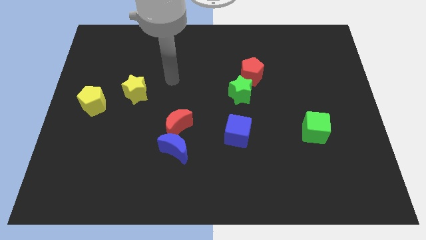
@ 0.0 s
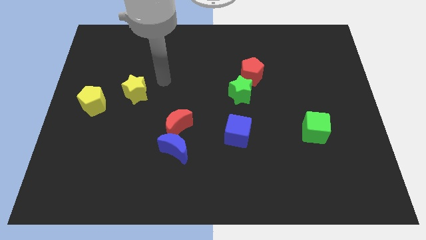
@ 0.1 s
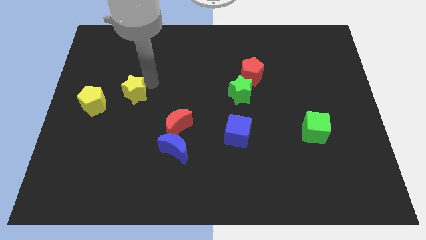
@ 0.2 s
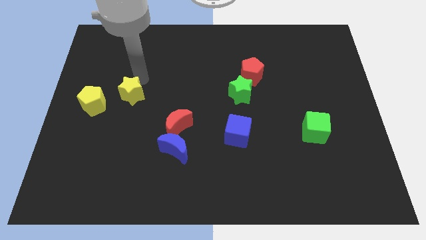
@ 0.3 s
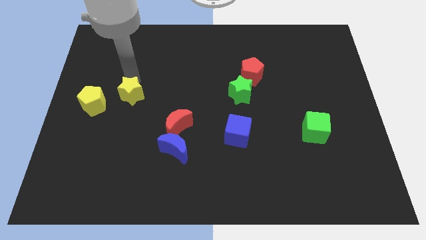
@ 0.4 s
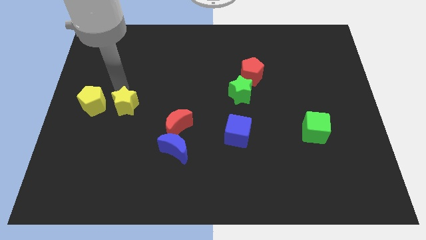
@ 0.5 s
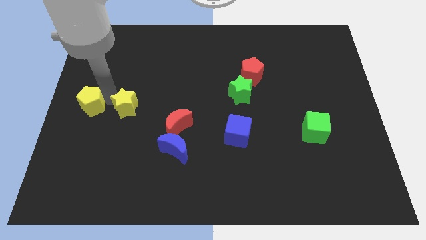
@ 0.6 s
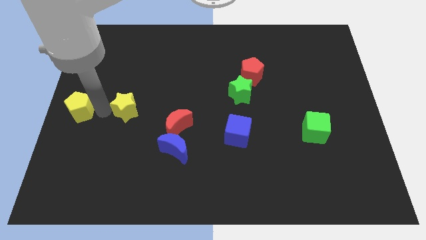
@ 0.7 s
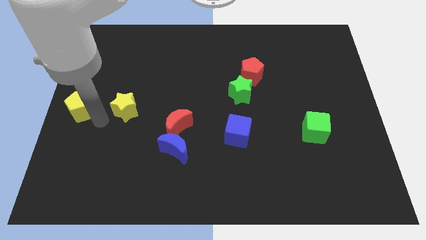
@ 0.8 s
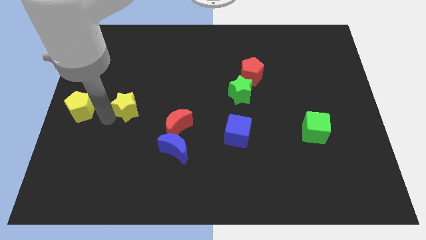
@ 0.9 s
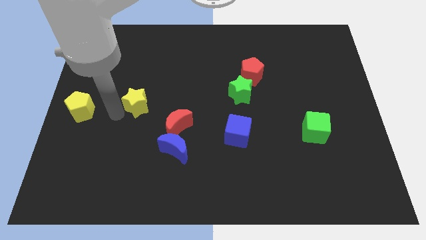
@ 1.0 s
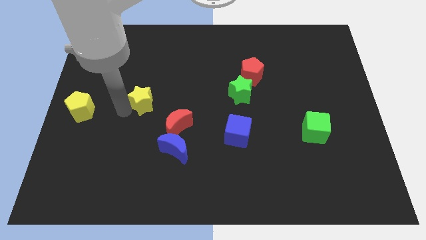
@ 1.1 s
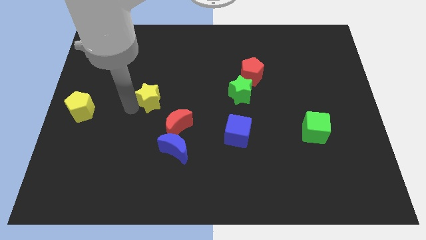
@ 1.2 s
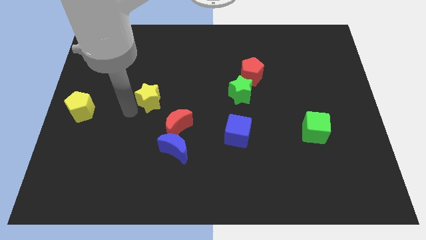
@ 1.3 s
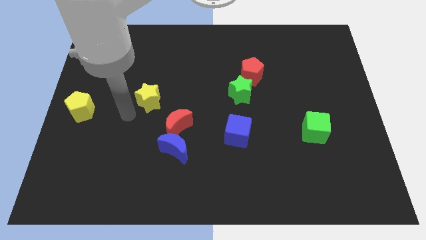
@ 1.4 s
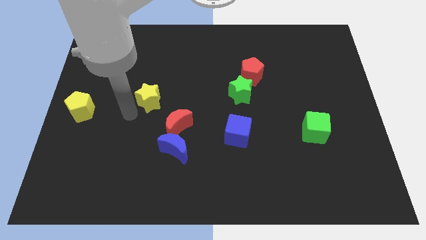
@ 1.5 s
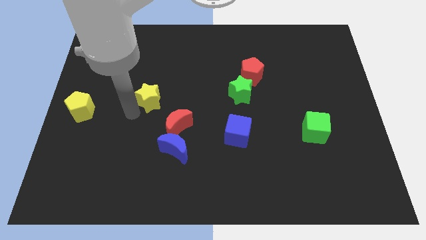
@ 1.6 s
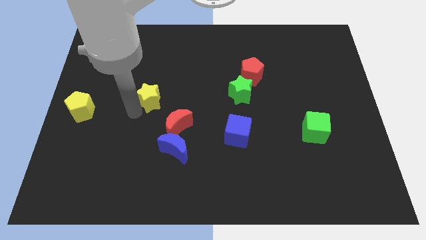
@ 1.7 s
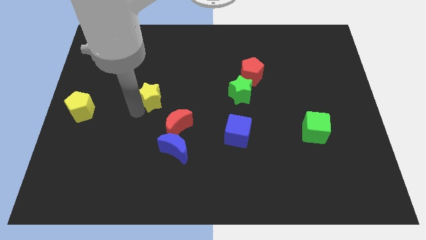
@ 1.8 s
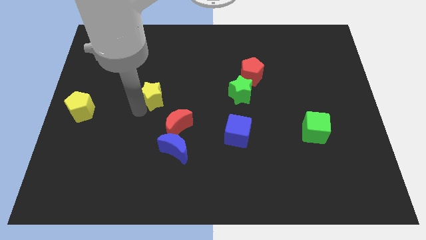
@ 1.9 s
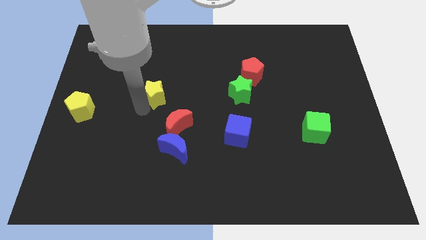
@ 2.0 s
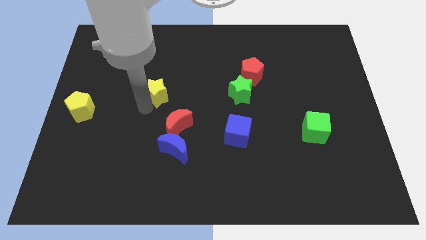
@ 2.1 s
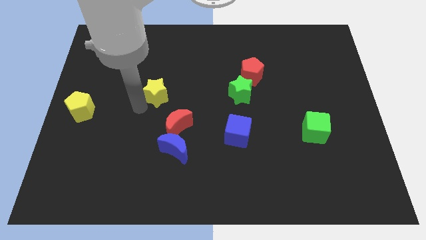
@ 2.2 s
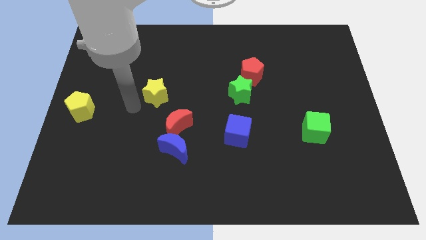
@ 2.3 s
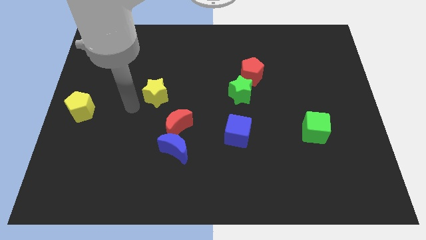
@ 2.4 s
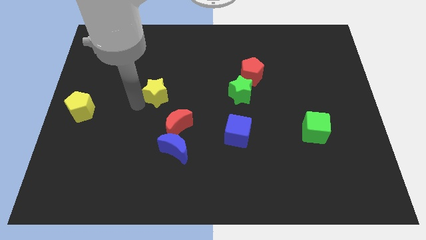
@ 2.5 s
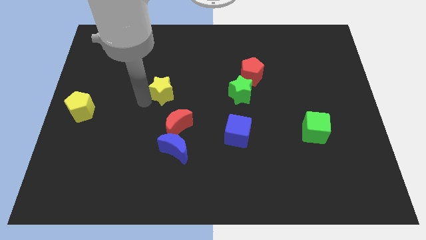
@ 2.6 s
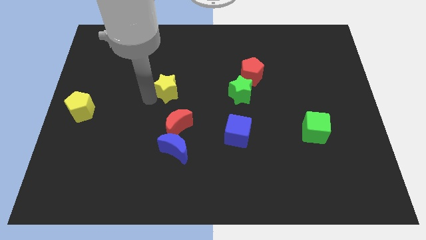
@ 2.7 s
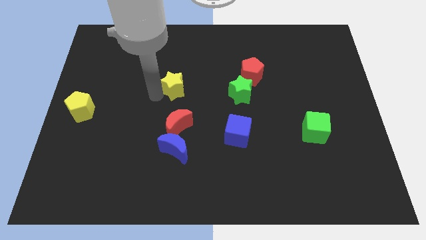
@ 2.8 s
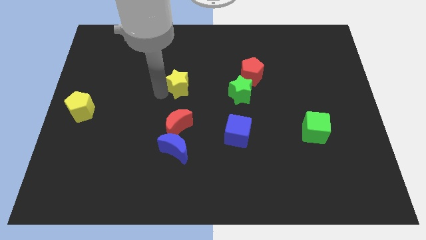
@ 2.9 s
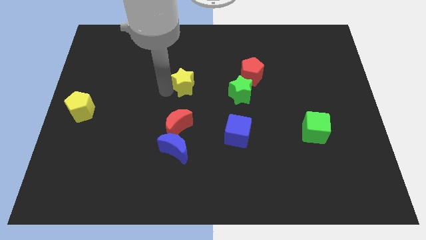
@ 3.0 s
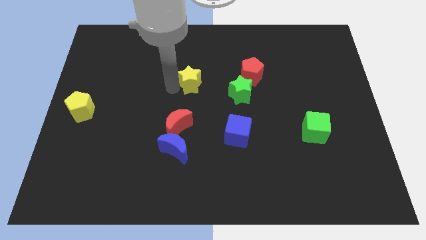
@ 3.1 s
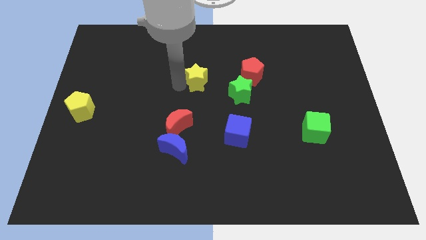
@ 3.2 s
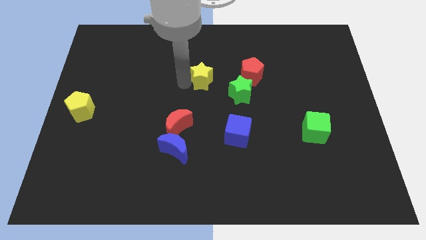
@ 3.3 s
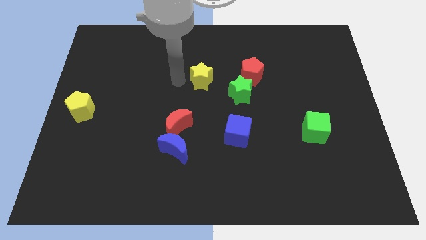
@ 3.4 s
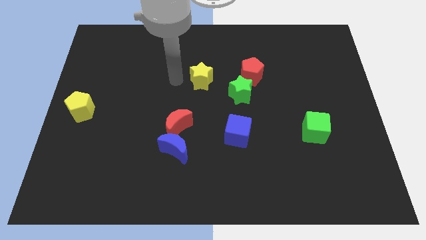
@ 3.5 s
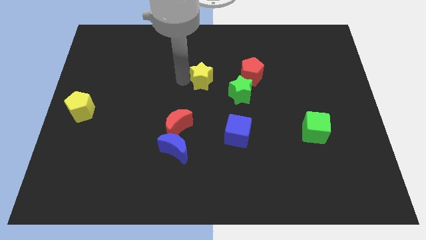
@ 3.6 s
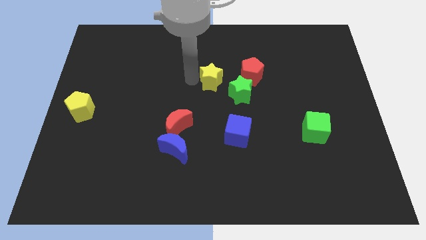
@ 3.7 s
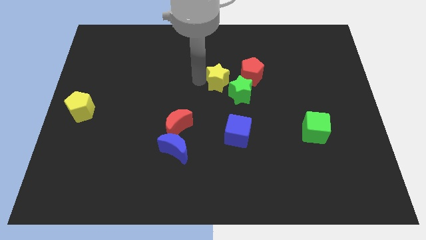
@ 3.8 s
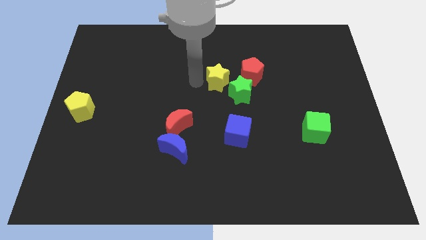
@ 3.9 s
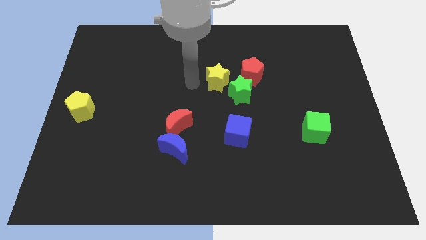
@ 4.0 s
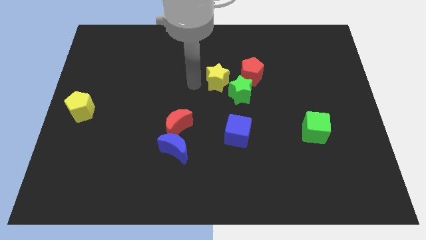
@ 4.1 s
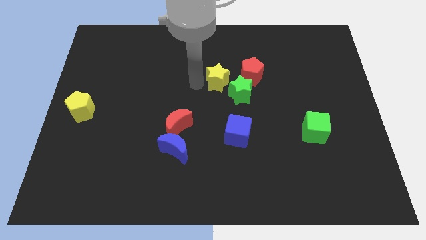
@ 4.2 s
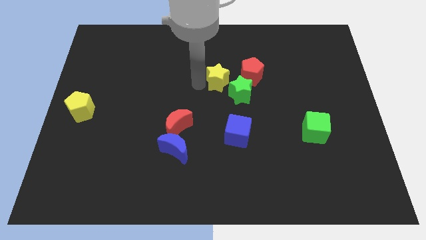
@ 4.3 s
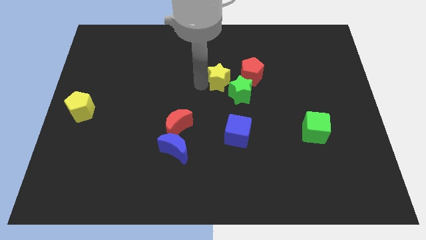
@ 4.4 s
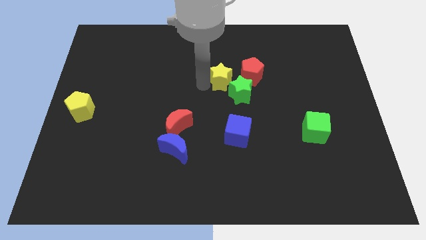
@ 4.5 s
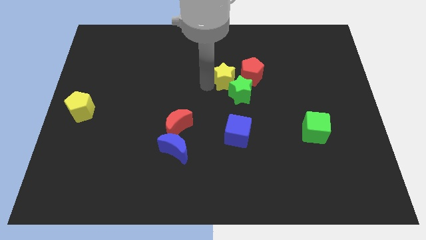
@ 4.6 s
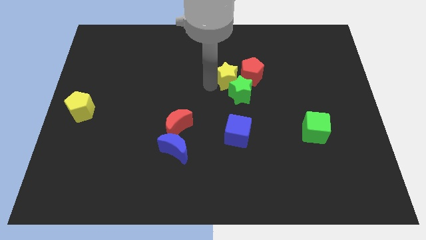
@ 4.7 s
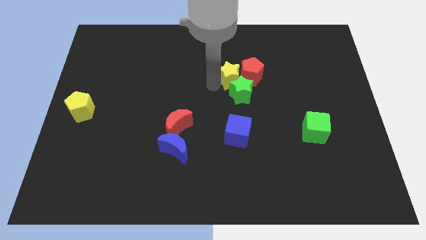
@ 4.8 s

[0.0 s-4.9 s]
push the yellow star next to the red pentagon

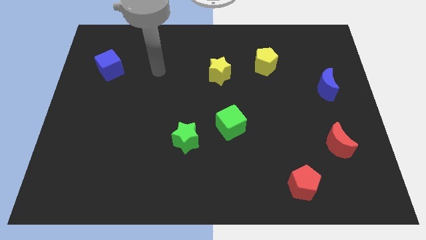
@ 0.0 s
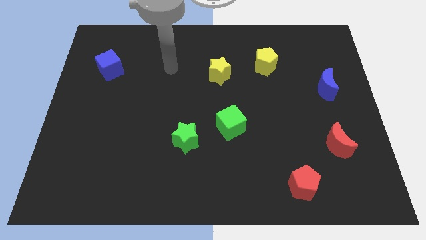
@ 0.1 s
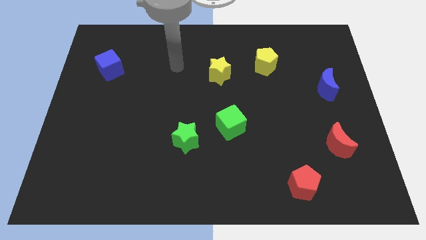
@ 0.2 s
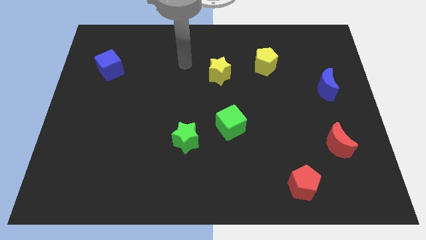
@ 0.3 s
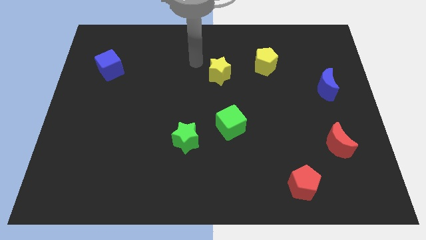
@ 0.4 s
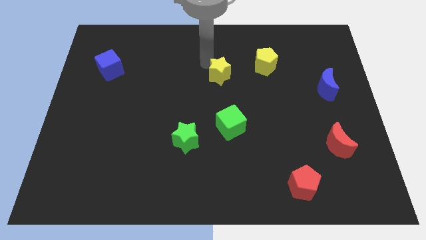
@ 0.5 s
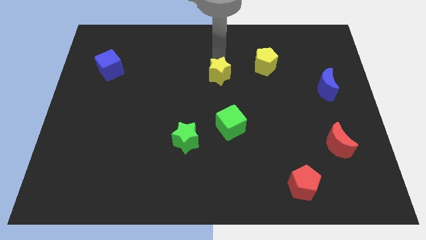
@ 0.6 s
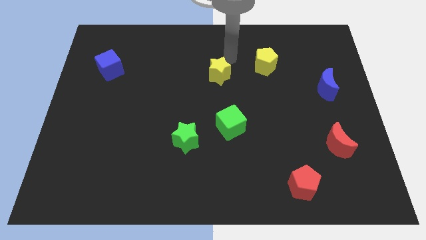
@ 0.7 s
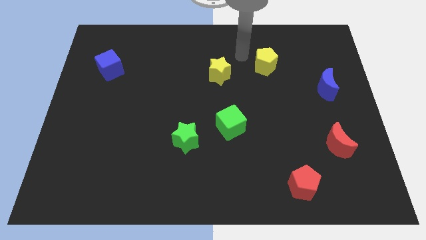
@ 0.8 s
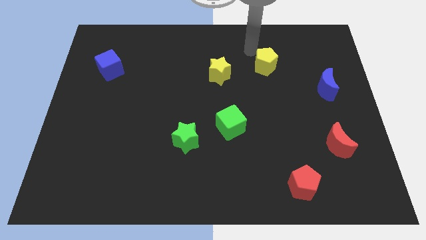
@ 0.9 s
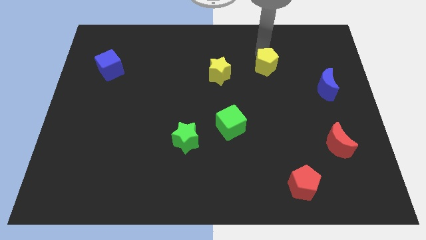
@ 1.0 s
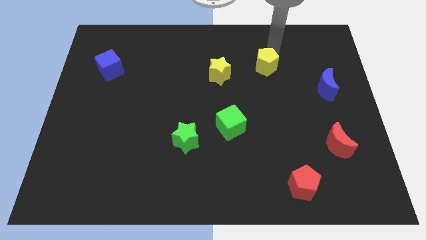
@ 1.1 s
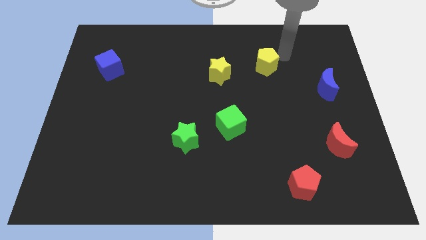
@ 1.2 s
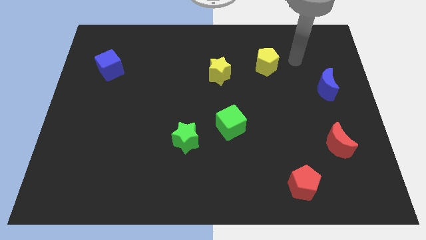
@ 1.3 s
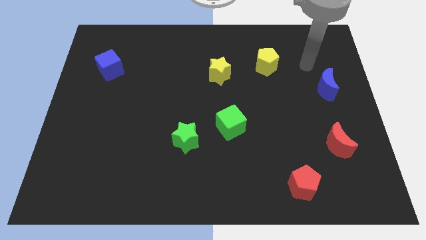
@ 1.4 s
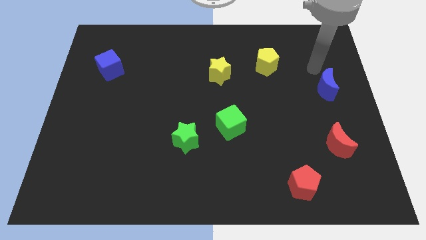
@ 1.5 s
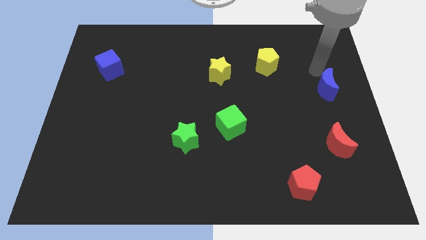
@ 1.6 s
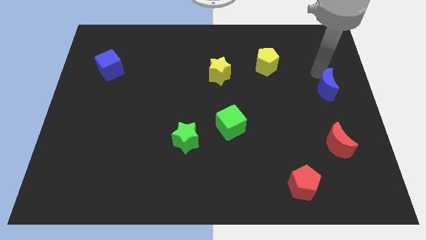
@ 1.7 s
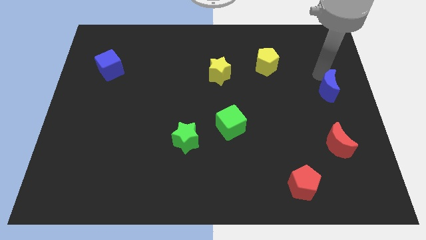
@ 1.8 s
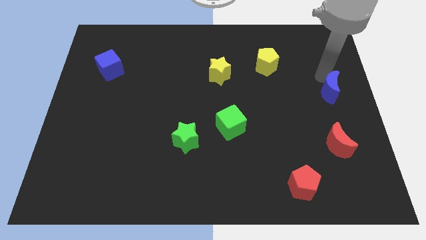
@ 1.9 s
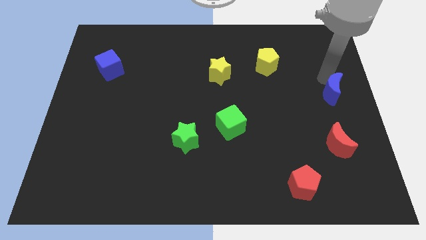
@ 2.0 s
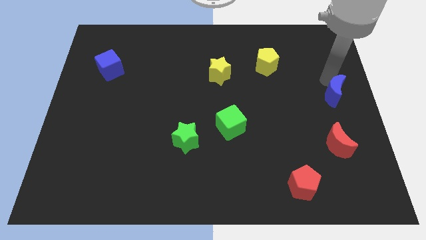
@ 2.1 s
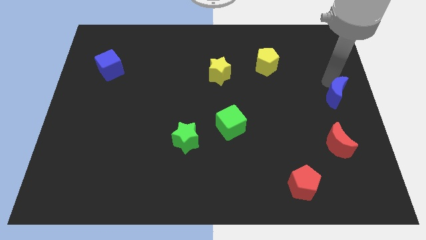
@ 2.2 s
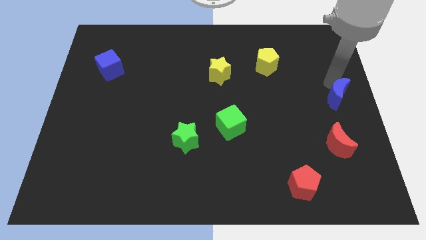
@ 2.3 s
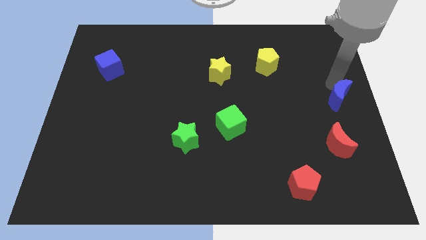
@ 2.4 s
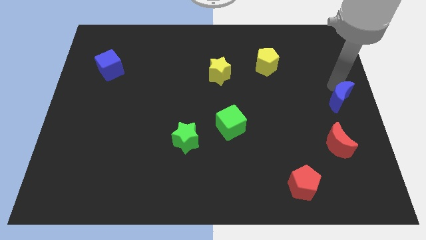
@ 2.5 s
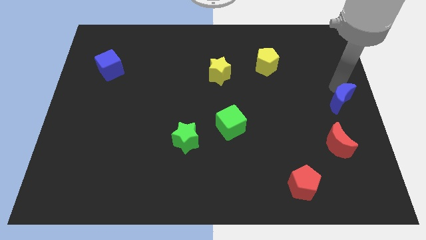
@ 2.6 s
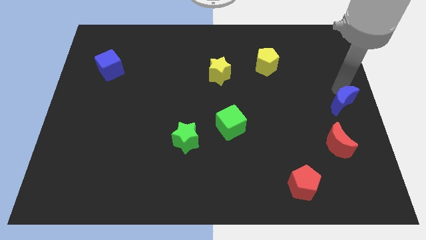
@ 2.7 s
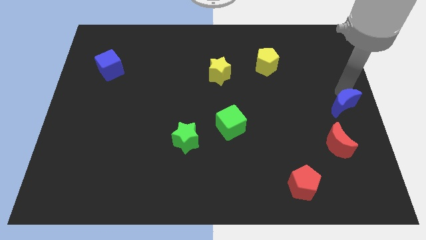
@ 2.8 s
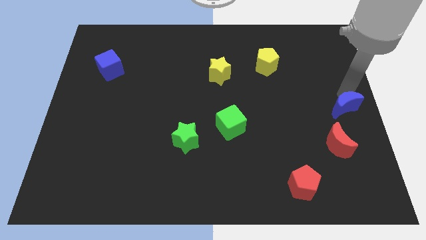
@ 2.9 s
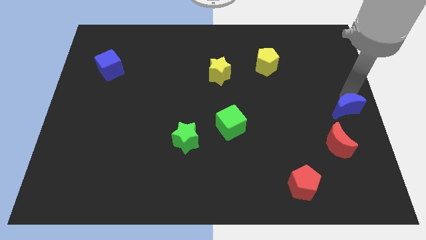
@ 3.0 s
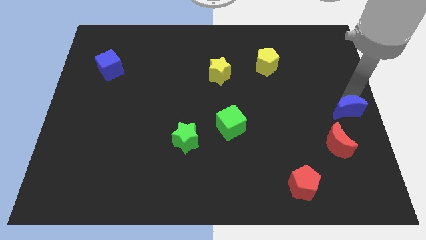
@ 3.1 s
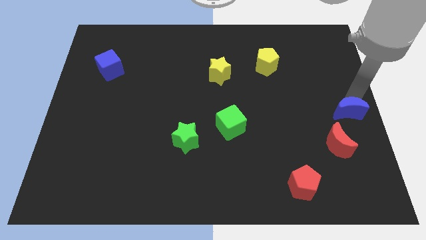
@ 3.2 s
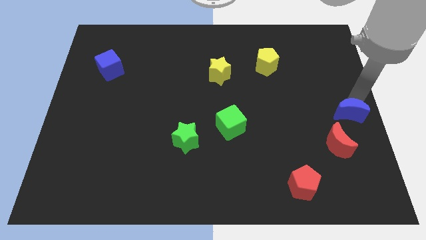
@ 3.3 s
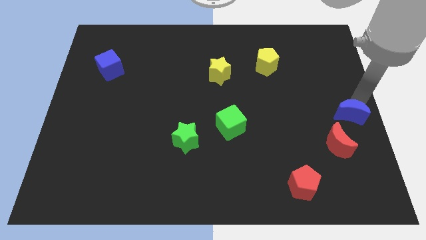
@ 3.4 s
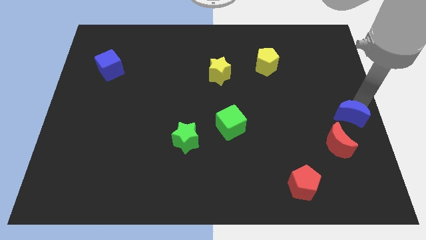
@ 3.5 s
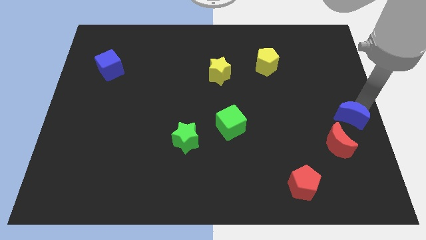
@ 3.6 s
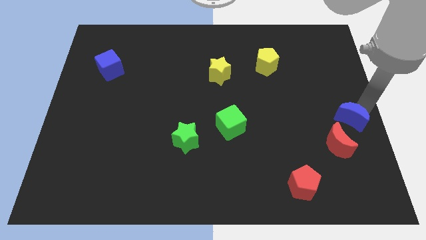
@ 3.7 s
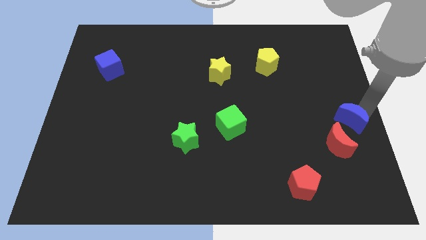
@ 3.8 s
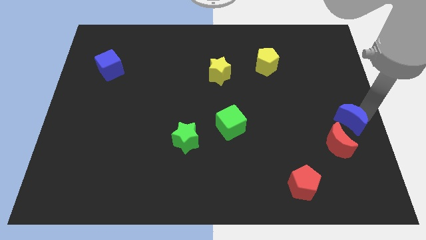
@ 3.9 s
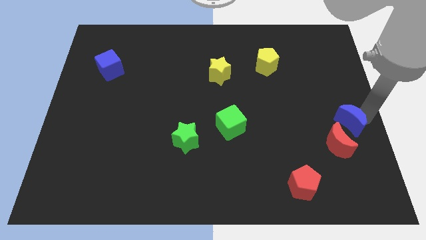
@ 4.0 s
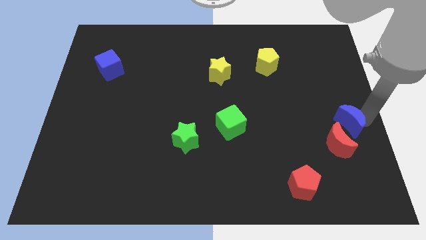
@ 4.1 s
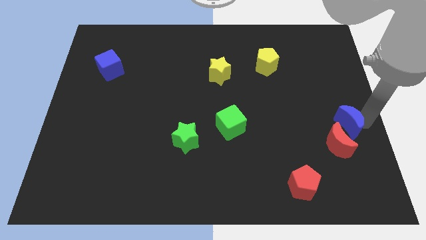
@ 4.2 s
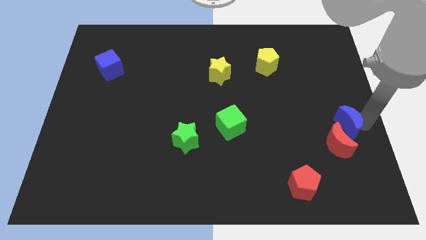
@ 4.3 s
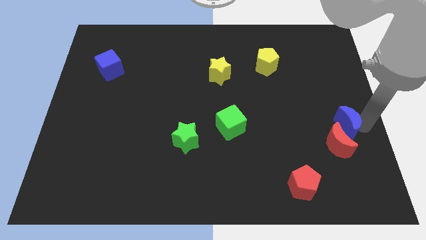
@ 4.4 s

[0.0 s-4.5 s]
put the blue moon next to the red moon
